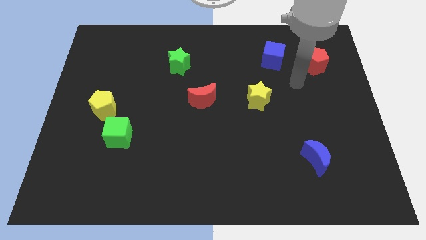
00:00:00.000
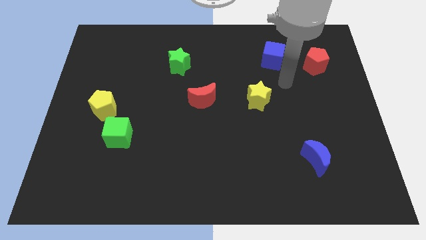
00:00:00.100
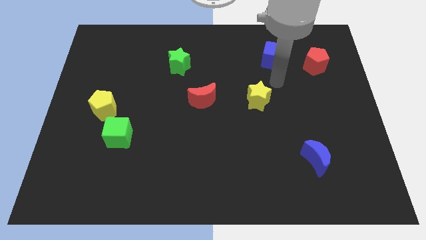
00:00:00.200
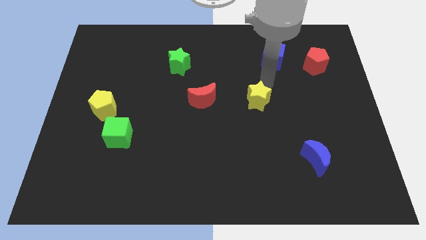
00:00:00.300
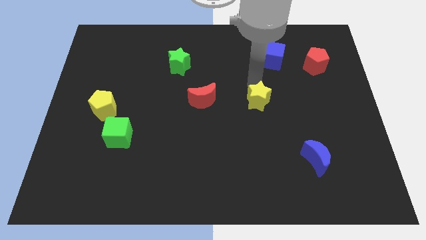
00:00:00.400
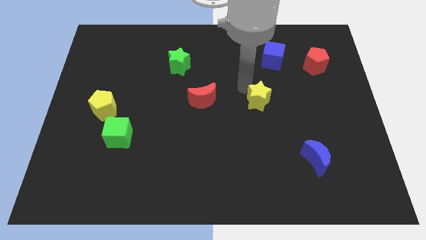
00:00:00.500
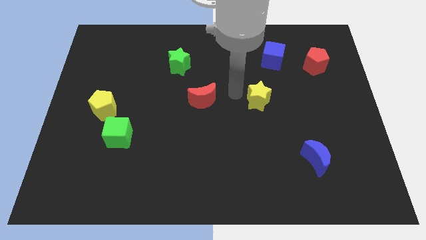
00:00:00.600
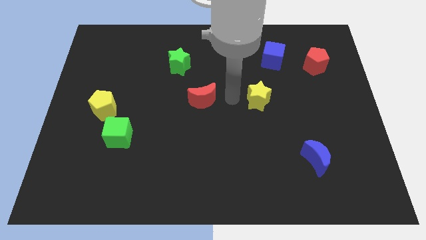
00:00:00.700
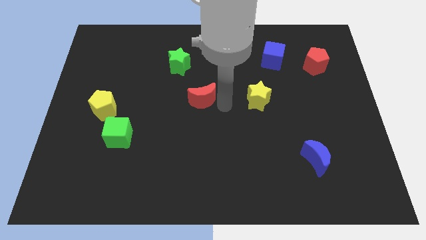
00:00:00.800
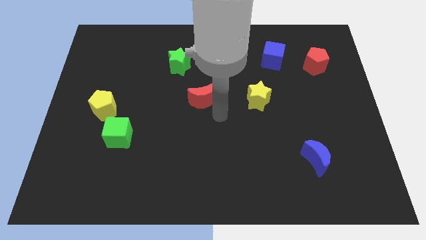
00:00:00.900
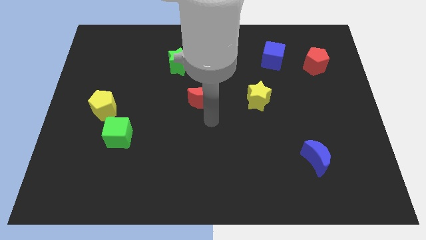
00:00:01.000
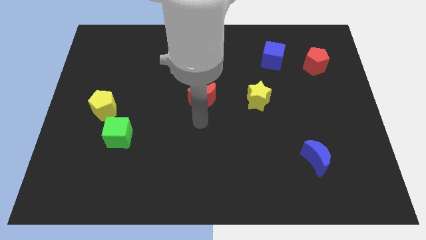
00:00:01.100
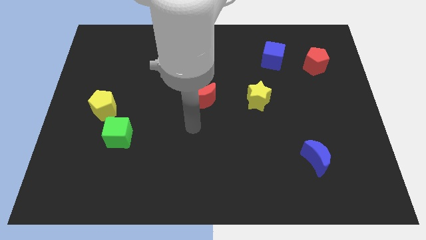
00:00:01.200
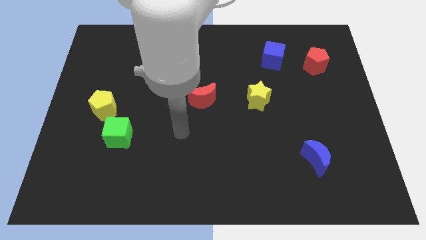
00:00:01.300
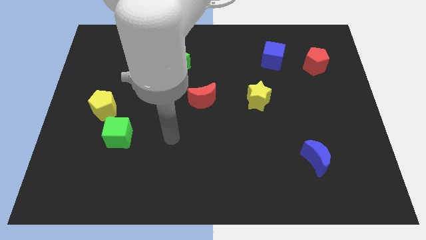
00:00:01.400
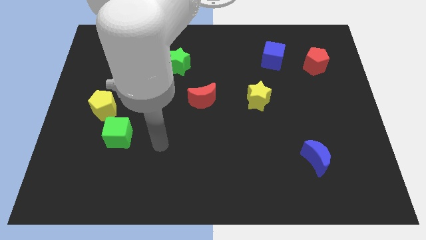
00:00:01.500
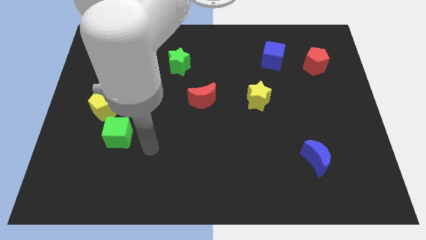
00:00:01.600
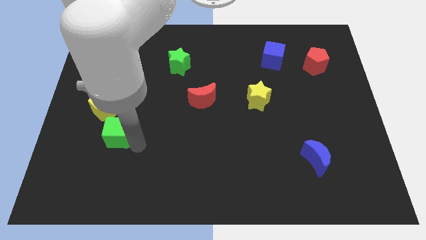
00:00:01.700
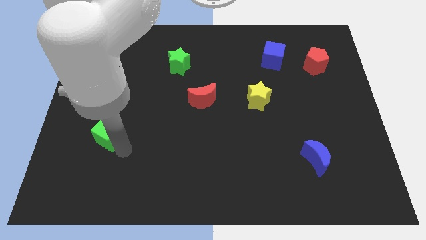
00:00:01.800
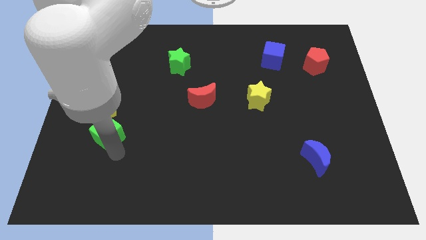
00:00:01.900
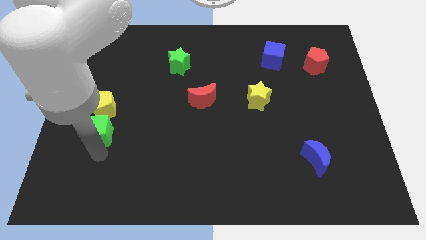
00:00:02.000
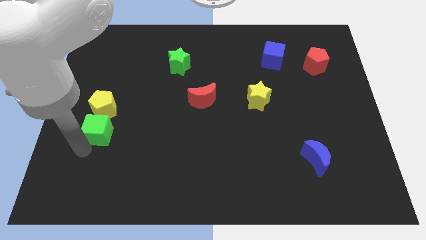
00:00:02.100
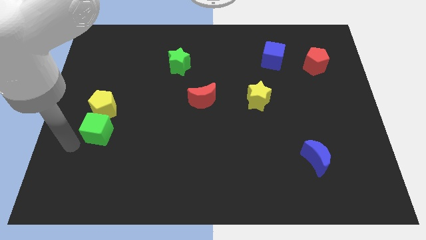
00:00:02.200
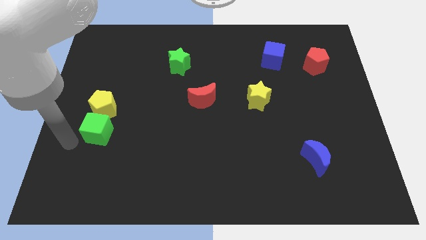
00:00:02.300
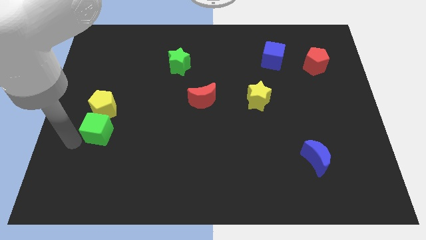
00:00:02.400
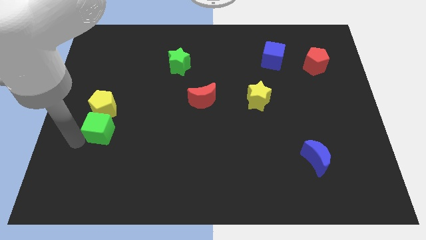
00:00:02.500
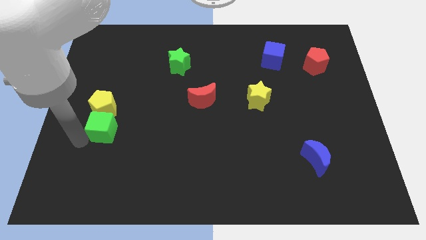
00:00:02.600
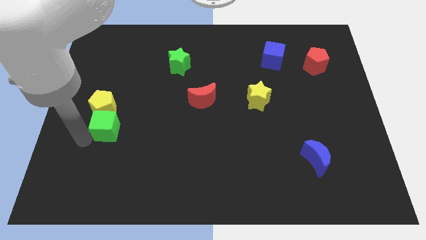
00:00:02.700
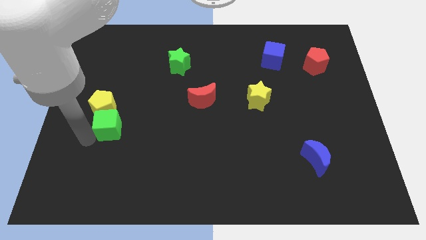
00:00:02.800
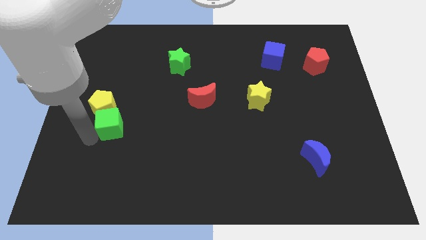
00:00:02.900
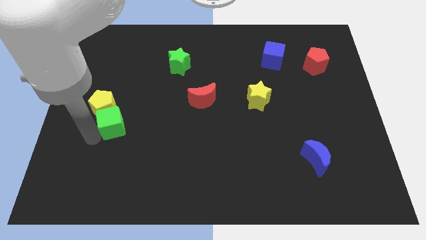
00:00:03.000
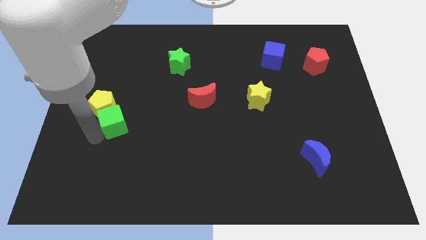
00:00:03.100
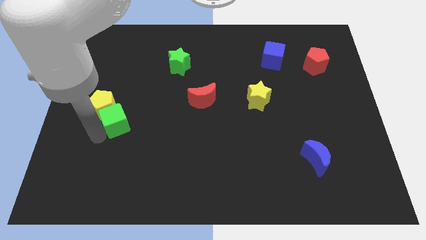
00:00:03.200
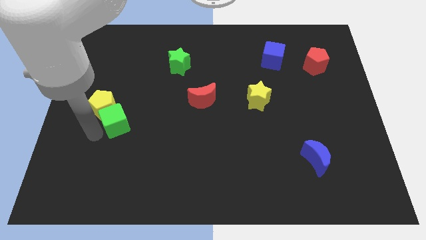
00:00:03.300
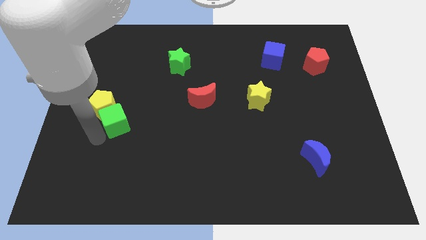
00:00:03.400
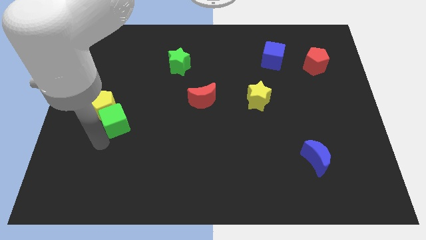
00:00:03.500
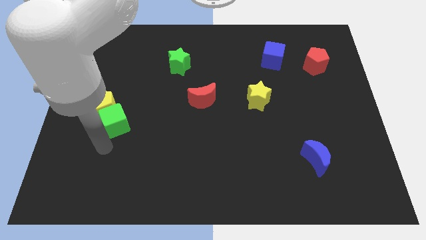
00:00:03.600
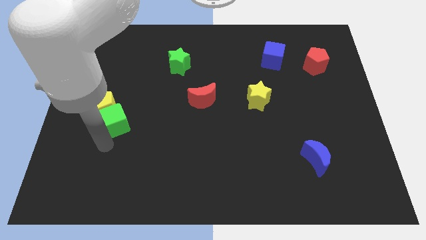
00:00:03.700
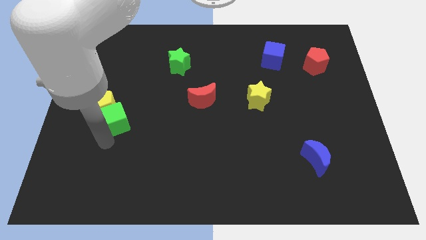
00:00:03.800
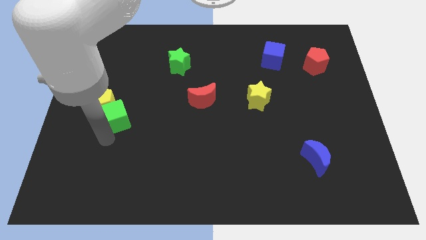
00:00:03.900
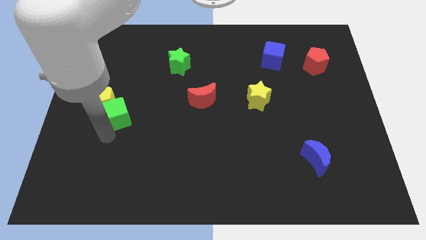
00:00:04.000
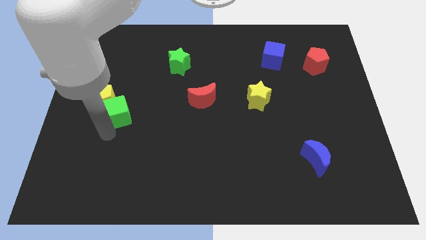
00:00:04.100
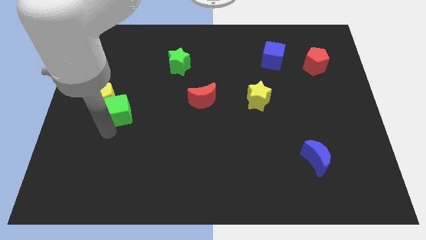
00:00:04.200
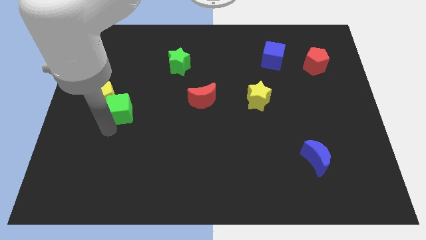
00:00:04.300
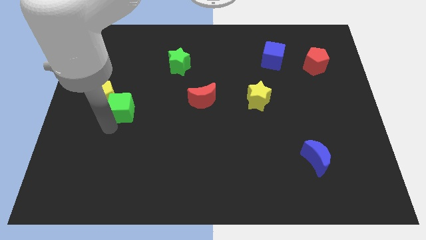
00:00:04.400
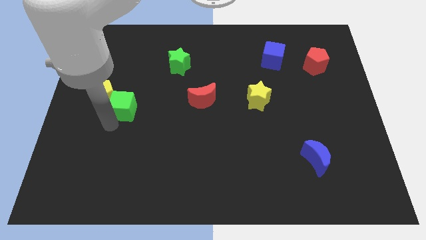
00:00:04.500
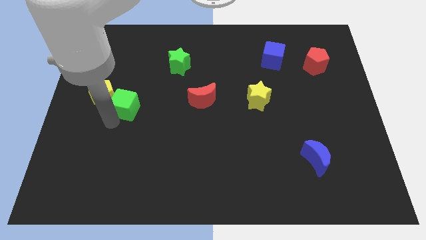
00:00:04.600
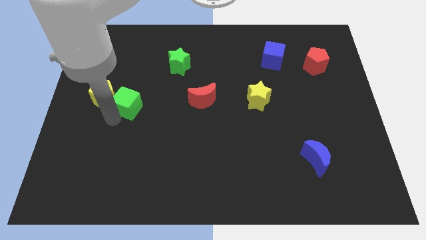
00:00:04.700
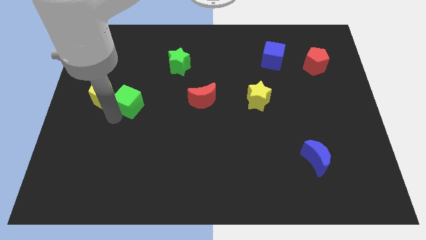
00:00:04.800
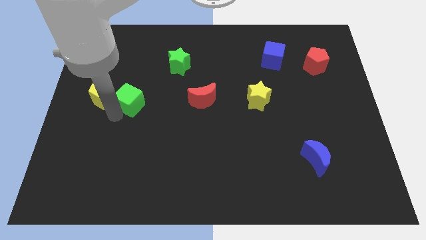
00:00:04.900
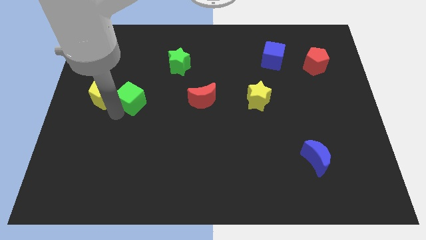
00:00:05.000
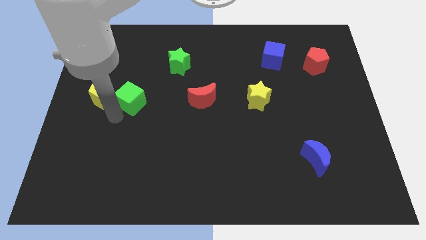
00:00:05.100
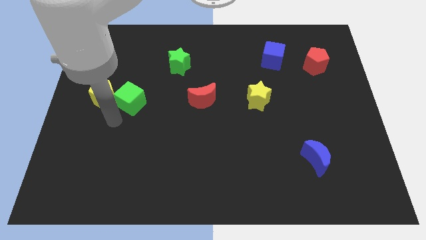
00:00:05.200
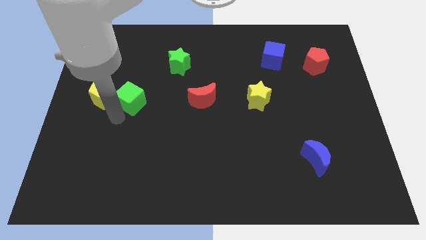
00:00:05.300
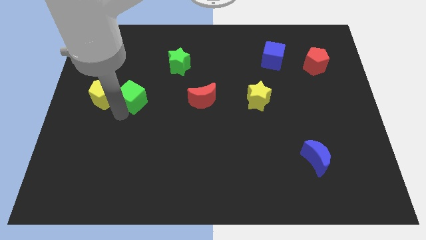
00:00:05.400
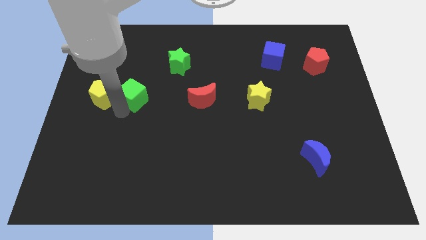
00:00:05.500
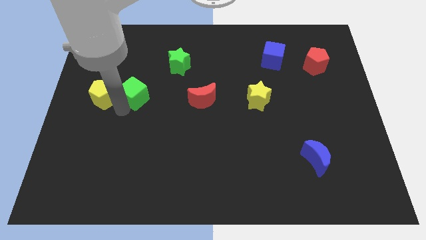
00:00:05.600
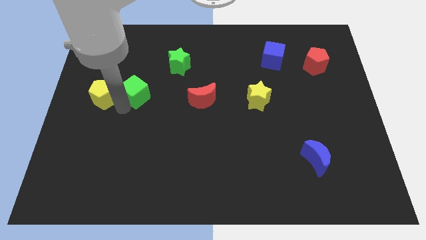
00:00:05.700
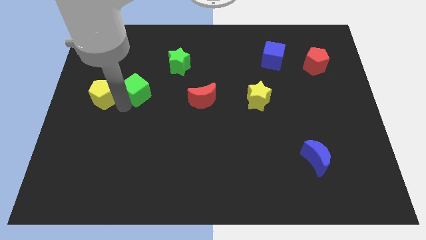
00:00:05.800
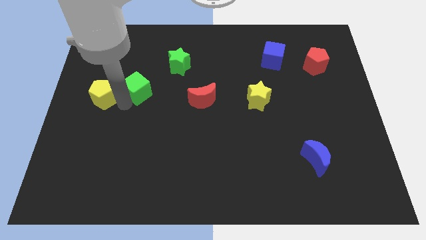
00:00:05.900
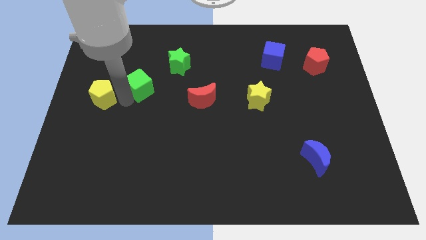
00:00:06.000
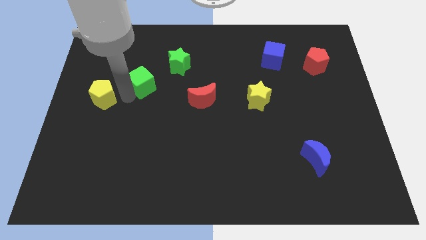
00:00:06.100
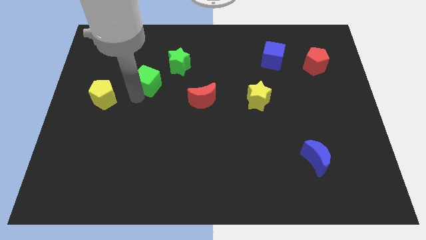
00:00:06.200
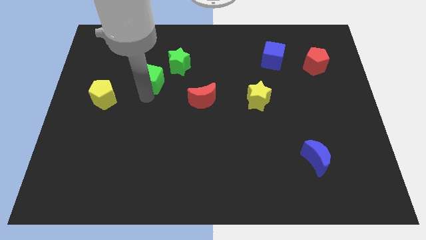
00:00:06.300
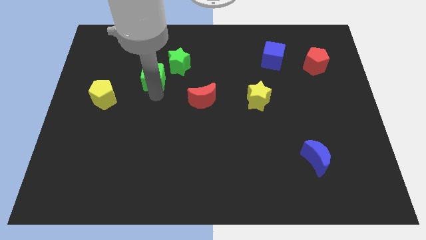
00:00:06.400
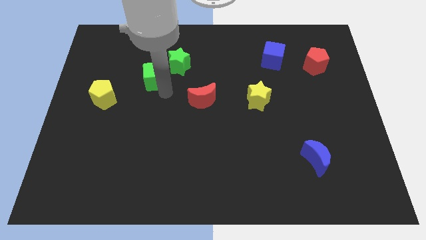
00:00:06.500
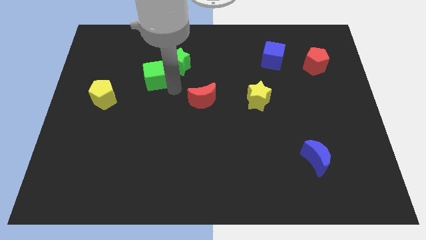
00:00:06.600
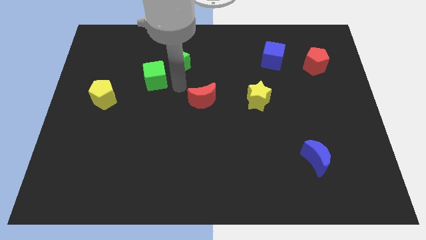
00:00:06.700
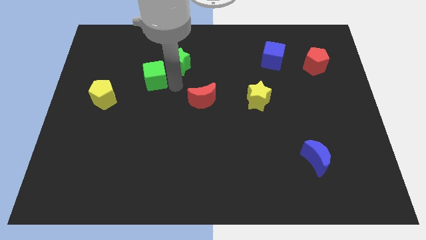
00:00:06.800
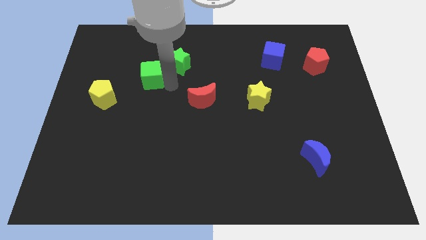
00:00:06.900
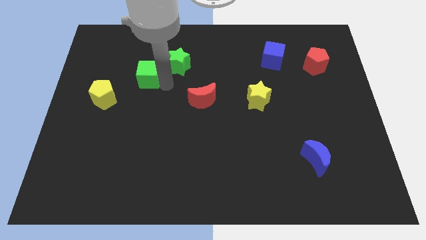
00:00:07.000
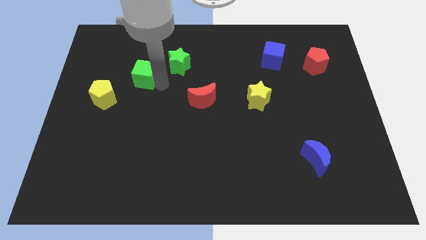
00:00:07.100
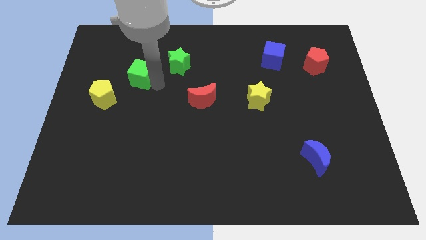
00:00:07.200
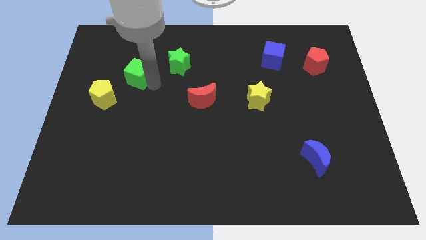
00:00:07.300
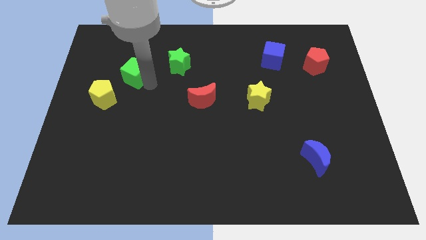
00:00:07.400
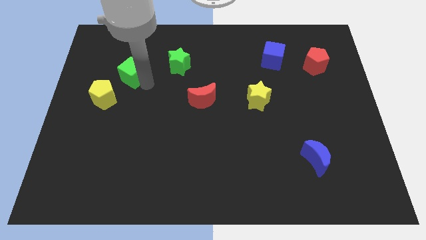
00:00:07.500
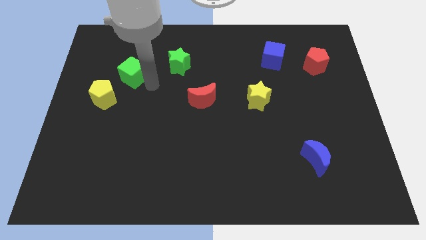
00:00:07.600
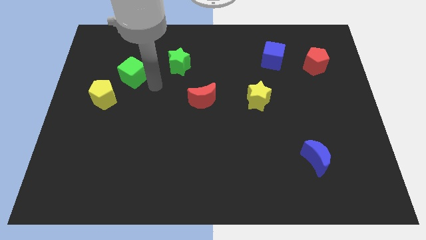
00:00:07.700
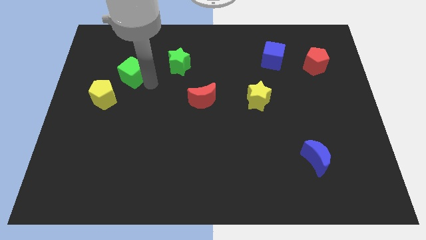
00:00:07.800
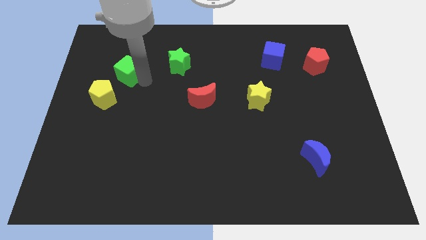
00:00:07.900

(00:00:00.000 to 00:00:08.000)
put the green cube to the top side of the yellow pentagon
